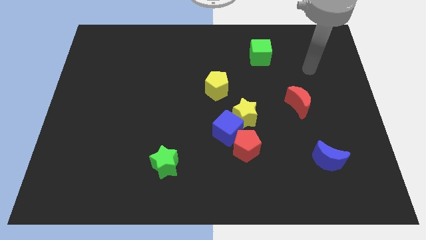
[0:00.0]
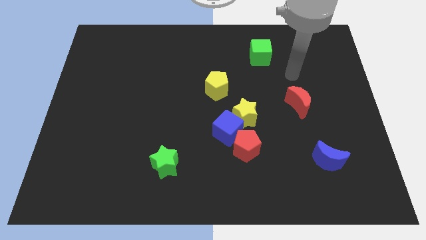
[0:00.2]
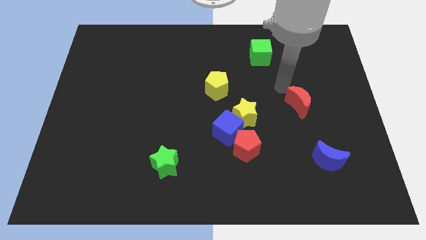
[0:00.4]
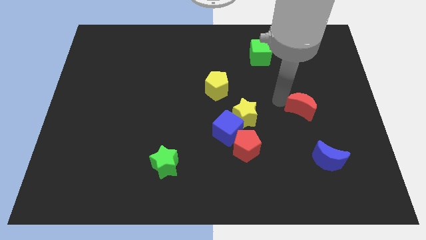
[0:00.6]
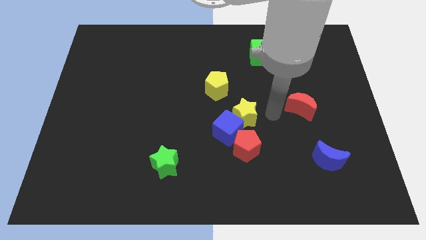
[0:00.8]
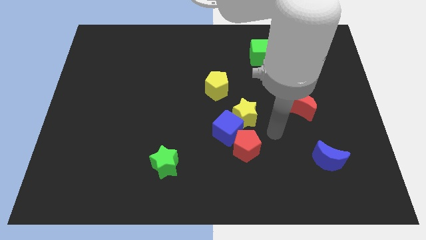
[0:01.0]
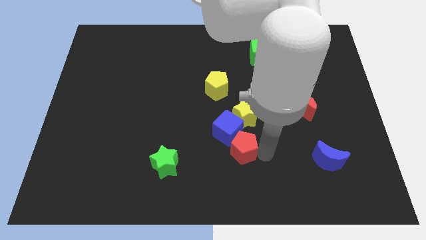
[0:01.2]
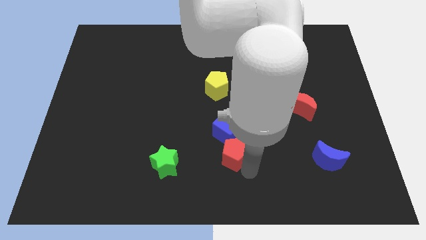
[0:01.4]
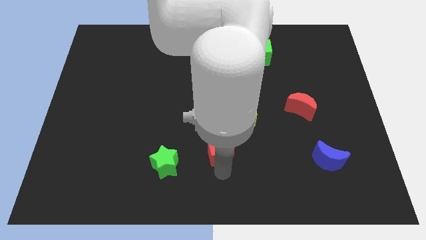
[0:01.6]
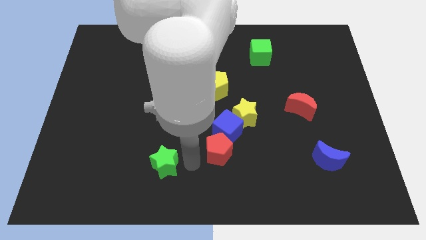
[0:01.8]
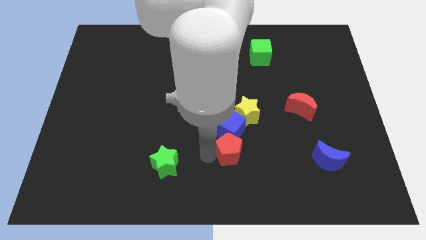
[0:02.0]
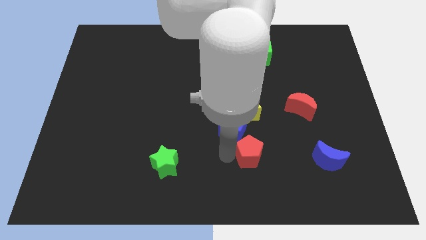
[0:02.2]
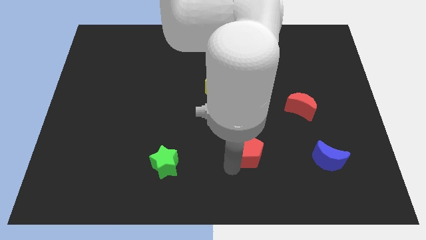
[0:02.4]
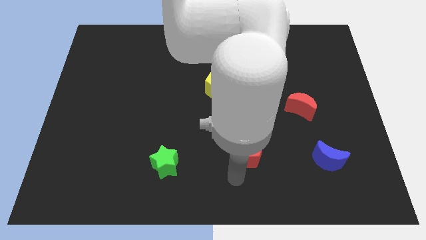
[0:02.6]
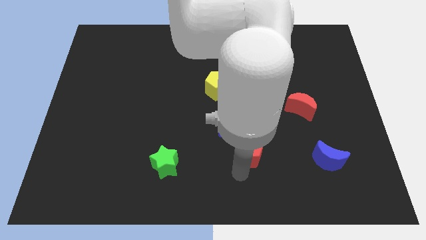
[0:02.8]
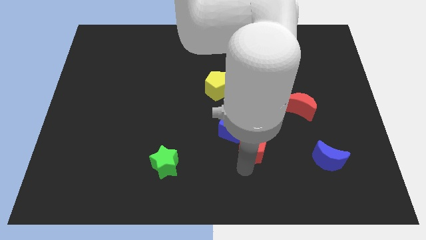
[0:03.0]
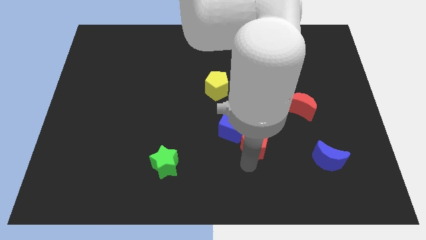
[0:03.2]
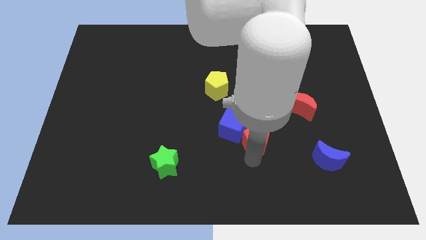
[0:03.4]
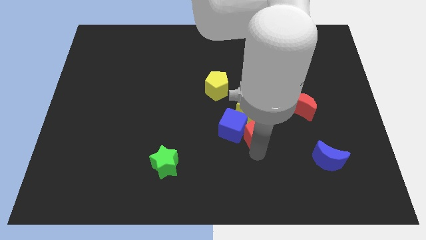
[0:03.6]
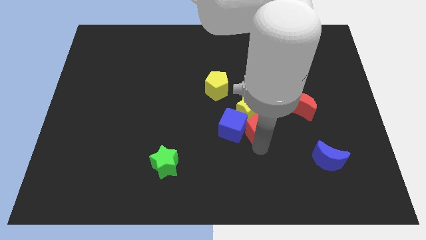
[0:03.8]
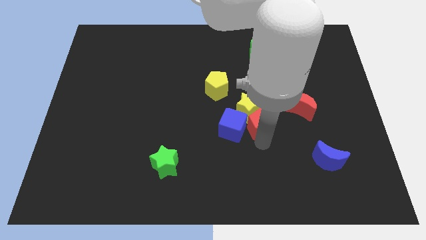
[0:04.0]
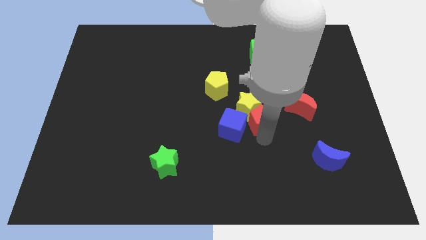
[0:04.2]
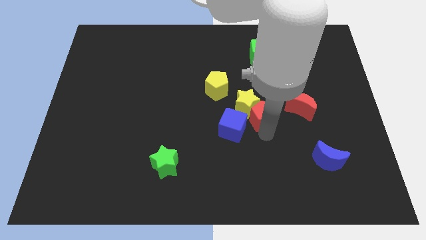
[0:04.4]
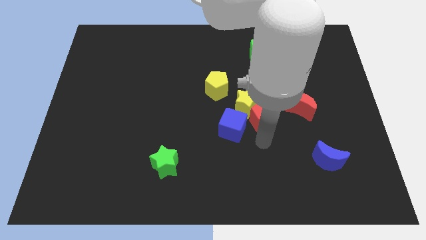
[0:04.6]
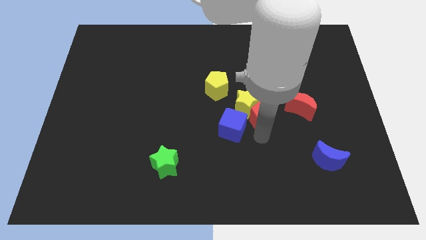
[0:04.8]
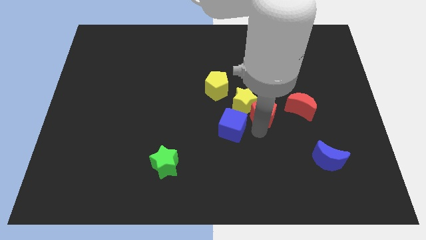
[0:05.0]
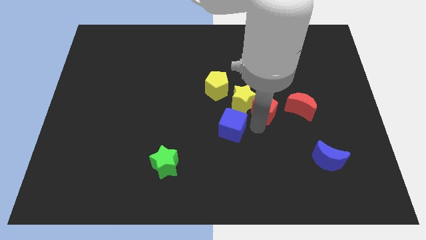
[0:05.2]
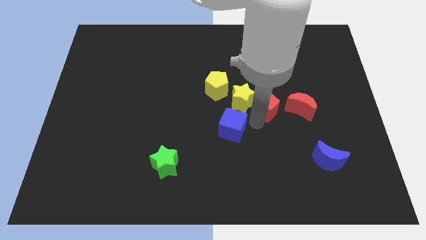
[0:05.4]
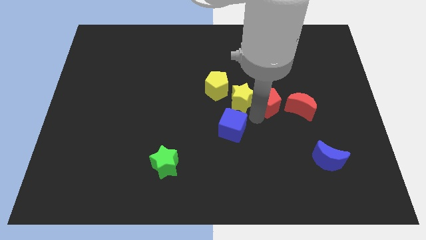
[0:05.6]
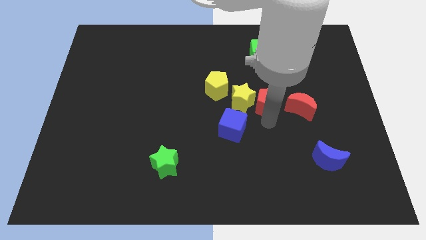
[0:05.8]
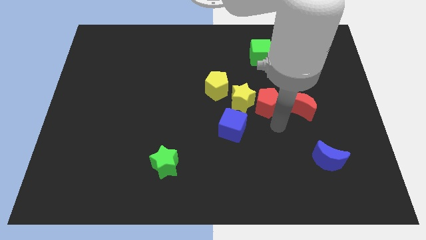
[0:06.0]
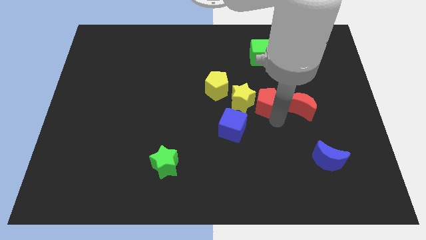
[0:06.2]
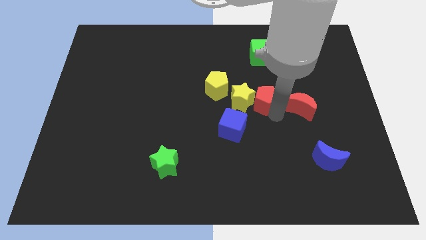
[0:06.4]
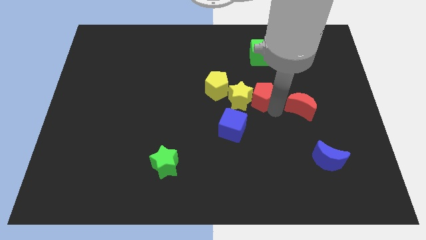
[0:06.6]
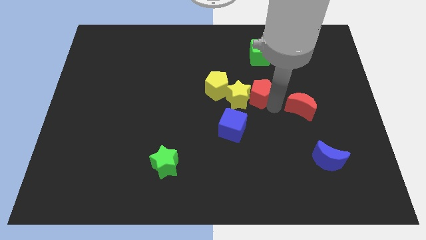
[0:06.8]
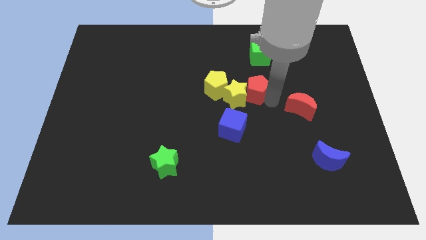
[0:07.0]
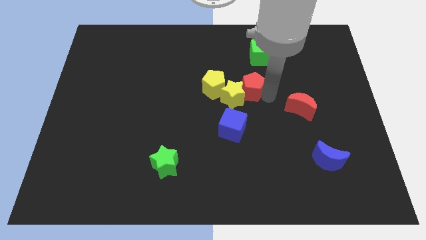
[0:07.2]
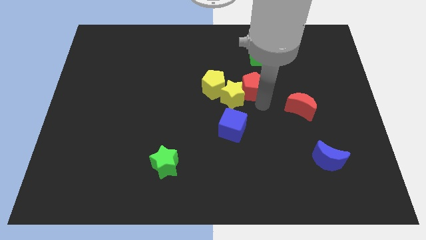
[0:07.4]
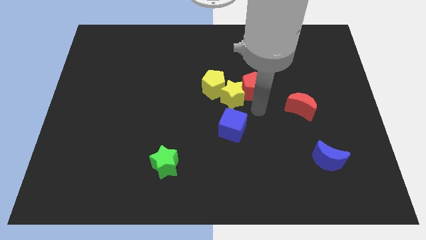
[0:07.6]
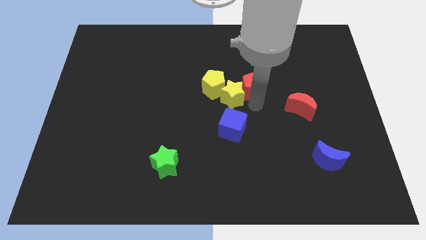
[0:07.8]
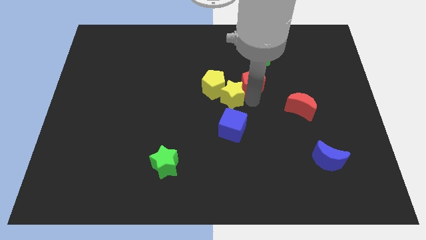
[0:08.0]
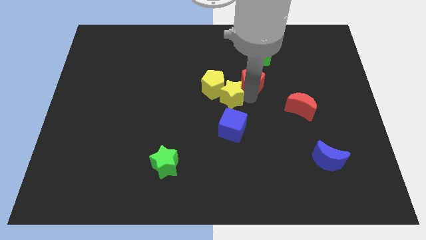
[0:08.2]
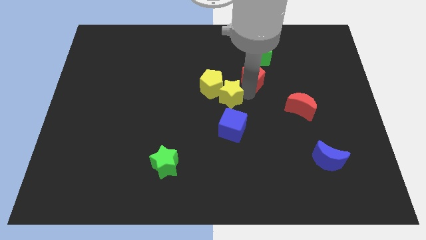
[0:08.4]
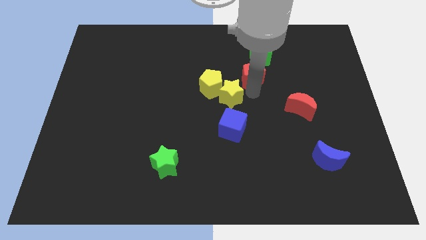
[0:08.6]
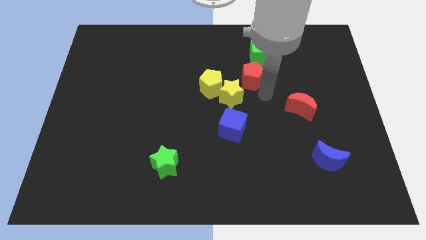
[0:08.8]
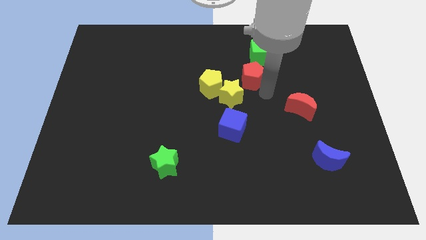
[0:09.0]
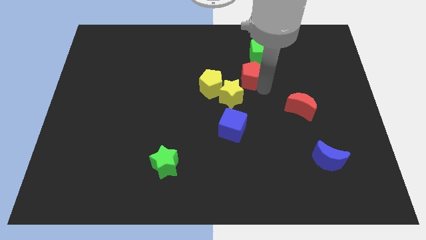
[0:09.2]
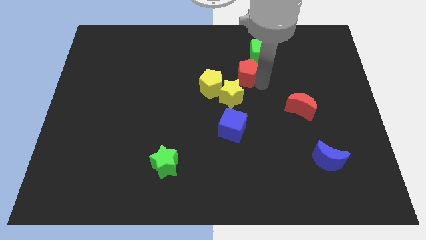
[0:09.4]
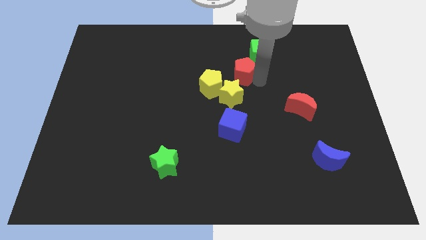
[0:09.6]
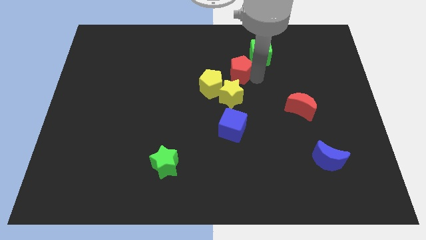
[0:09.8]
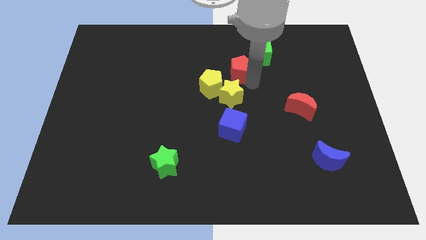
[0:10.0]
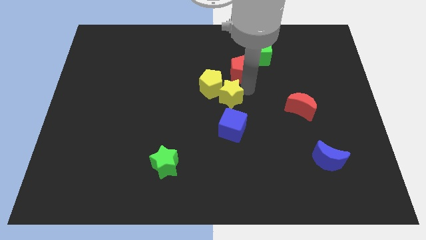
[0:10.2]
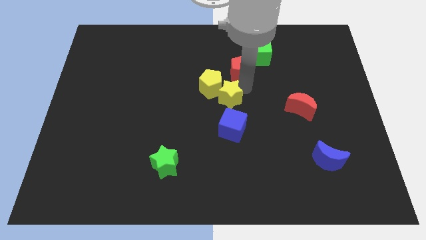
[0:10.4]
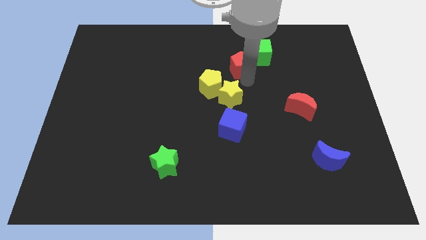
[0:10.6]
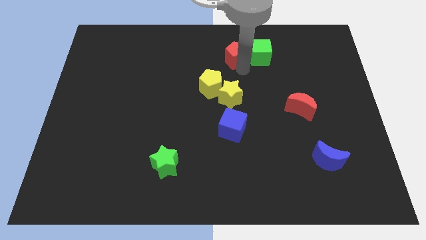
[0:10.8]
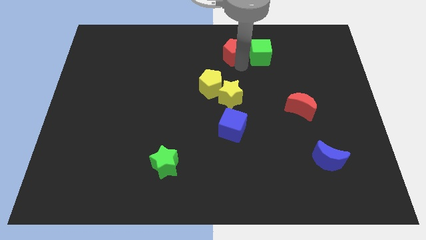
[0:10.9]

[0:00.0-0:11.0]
push the red pentagon to the top
